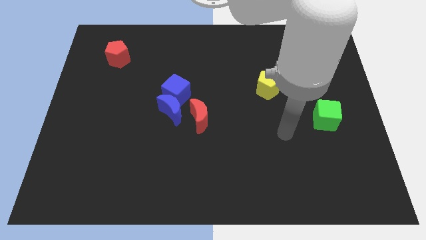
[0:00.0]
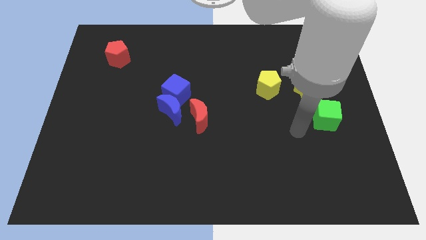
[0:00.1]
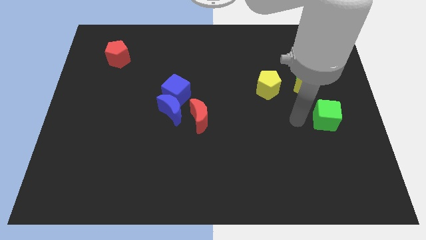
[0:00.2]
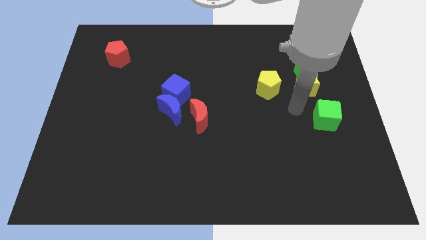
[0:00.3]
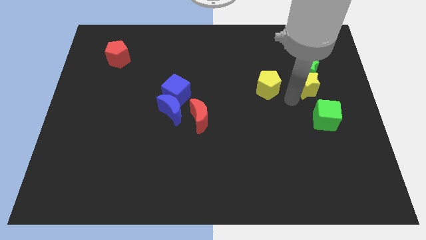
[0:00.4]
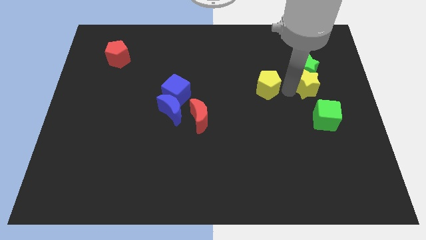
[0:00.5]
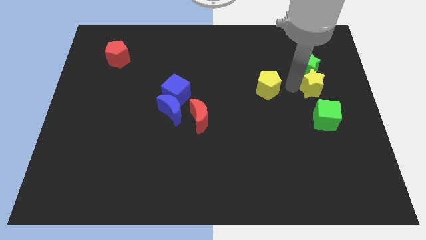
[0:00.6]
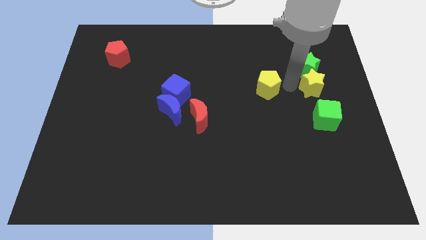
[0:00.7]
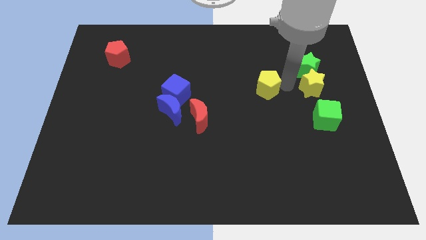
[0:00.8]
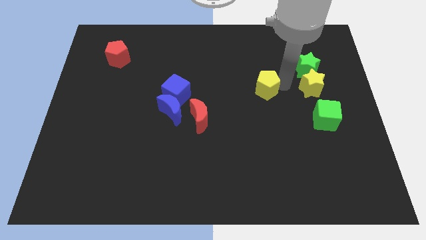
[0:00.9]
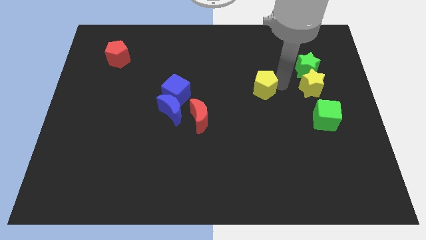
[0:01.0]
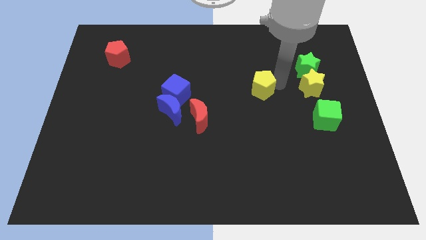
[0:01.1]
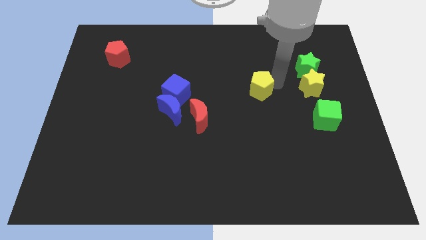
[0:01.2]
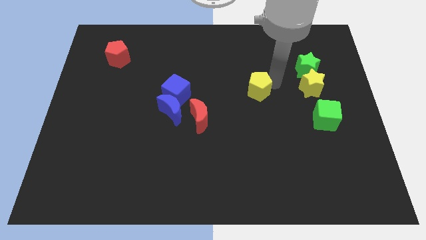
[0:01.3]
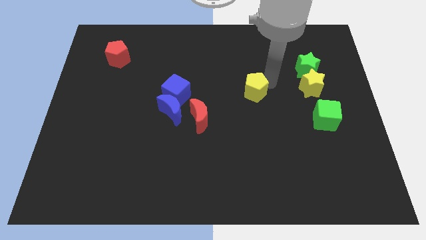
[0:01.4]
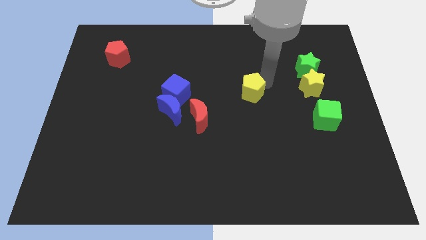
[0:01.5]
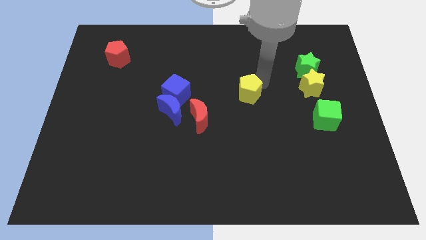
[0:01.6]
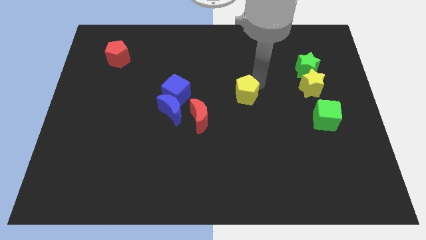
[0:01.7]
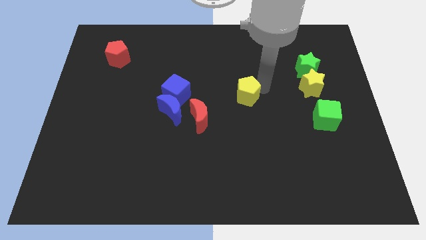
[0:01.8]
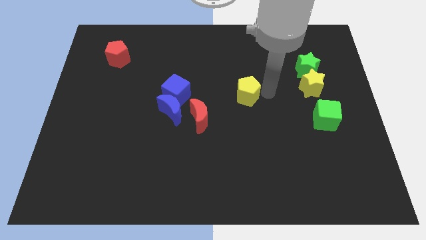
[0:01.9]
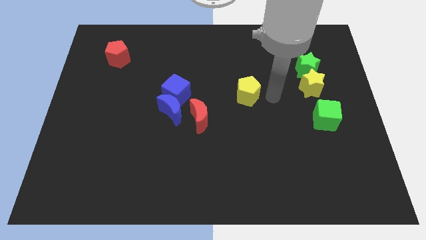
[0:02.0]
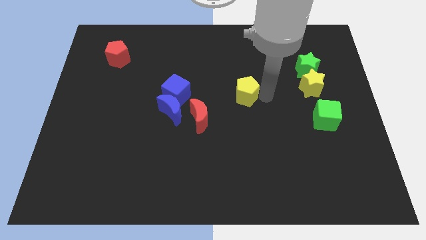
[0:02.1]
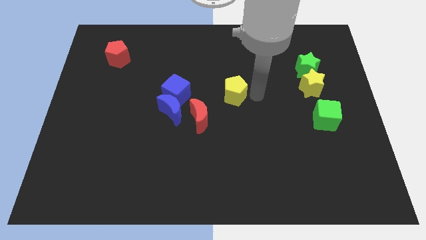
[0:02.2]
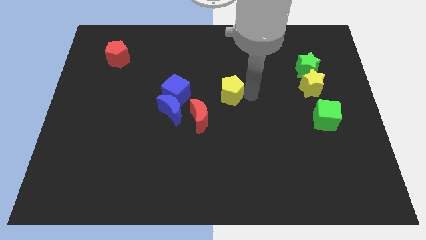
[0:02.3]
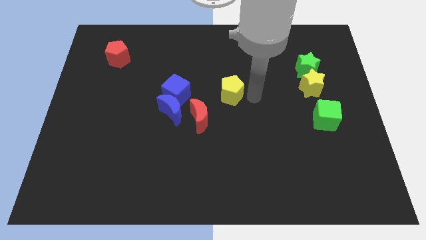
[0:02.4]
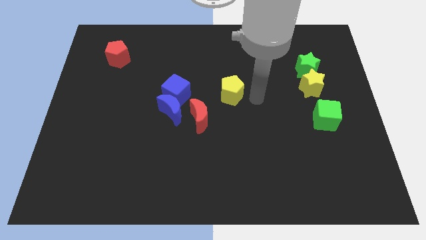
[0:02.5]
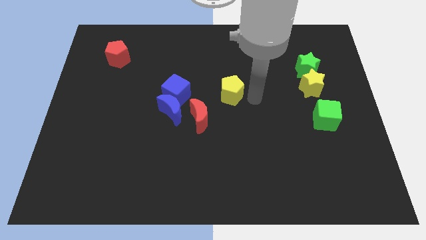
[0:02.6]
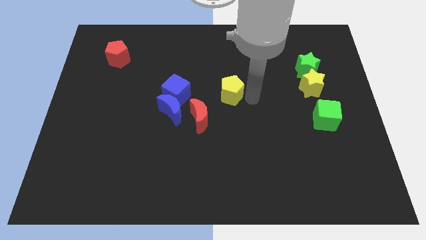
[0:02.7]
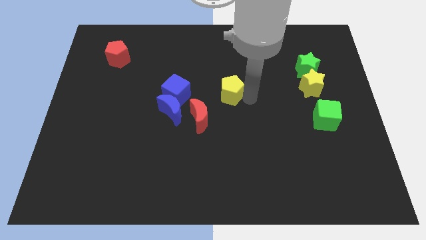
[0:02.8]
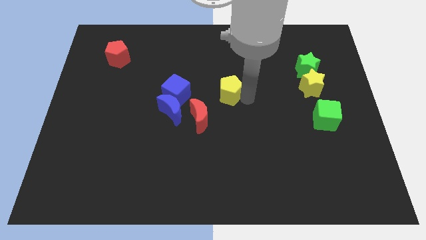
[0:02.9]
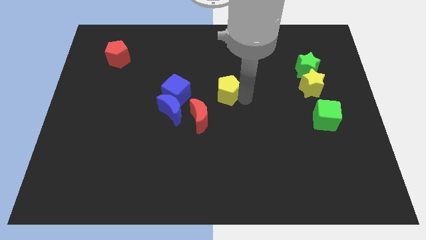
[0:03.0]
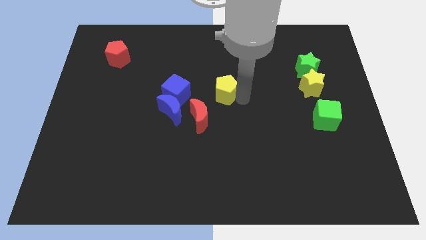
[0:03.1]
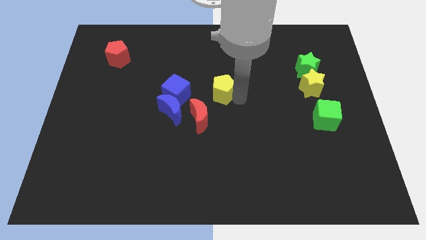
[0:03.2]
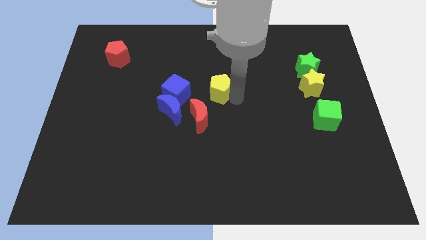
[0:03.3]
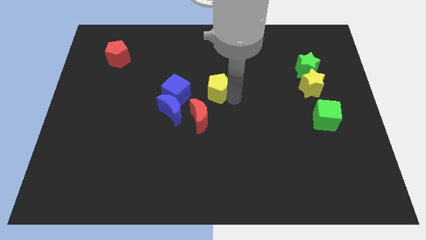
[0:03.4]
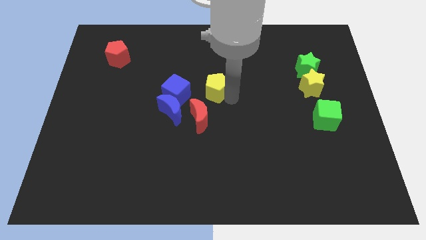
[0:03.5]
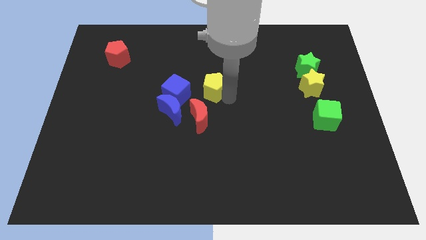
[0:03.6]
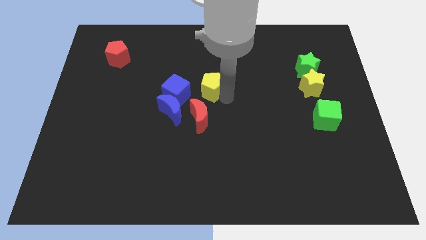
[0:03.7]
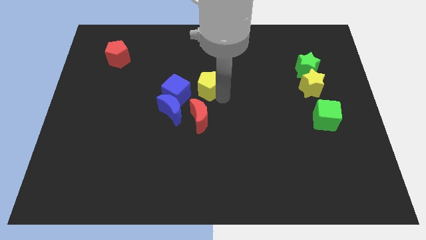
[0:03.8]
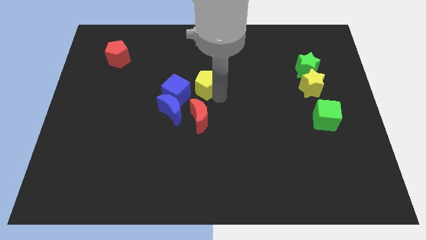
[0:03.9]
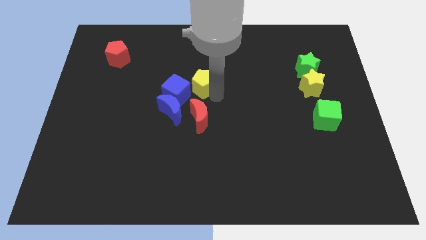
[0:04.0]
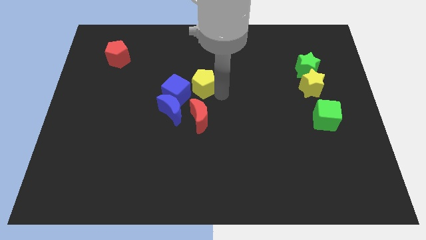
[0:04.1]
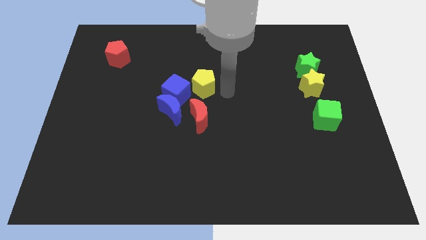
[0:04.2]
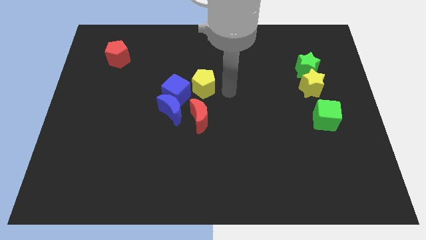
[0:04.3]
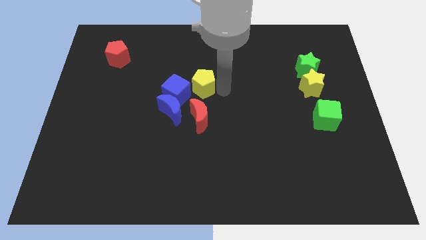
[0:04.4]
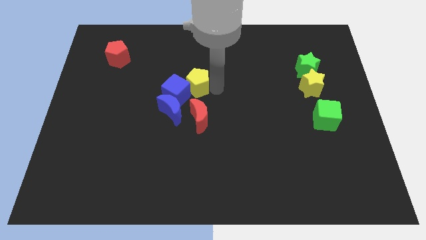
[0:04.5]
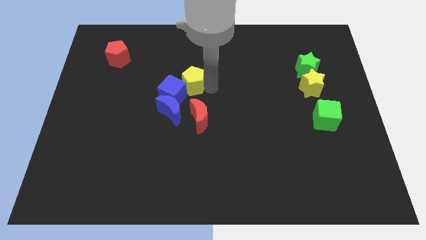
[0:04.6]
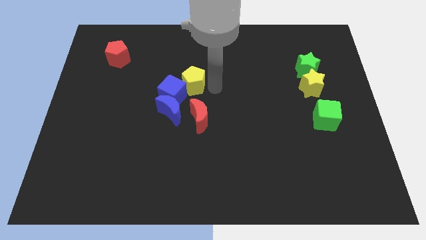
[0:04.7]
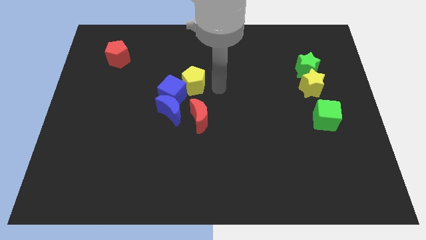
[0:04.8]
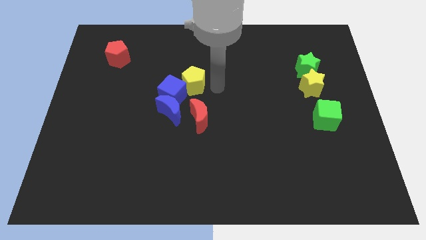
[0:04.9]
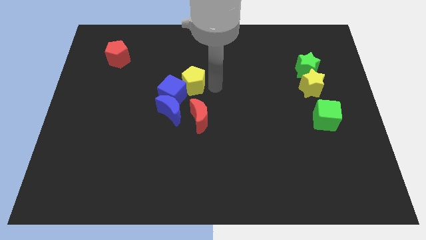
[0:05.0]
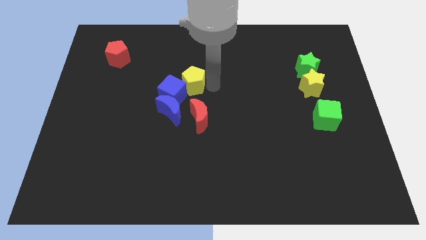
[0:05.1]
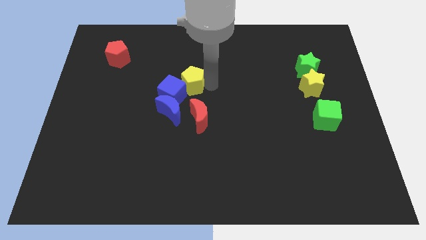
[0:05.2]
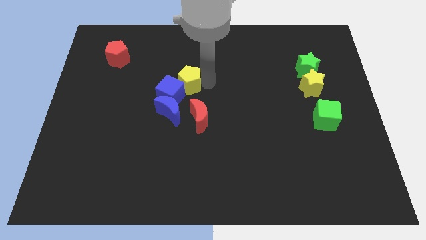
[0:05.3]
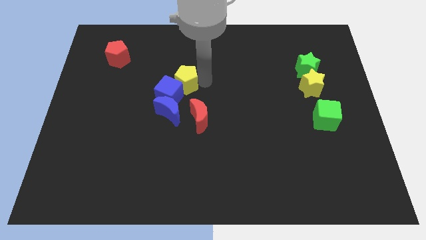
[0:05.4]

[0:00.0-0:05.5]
slide the yellow pentagon left

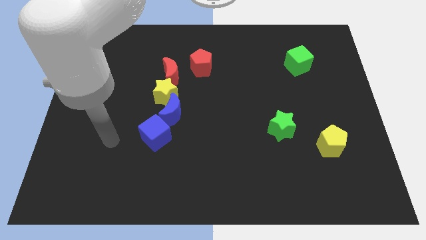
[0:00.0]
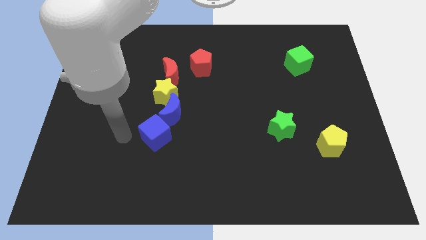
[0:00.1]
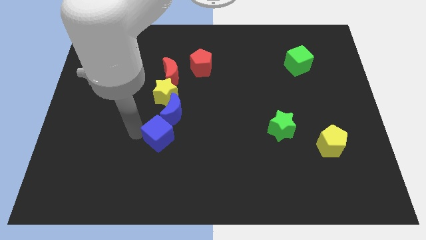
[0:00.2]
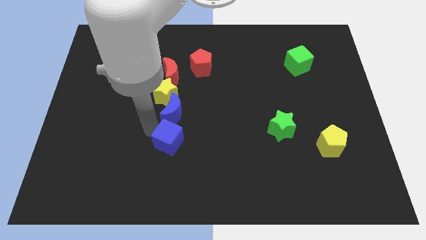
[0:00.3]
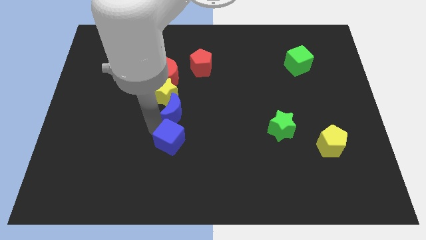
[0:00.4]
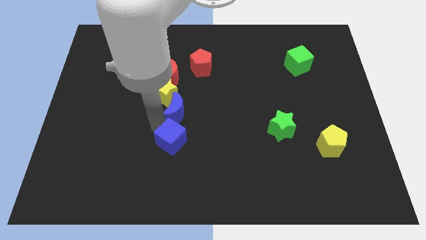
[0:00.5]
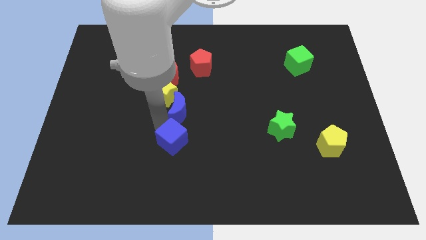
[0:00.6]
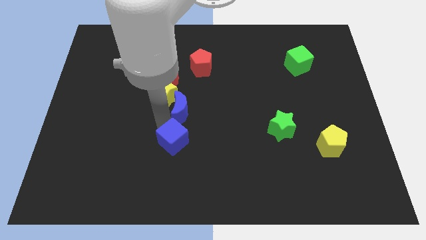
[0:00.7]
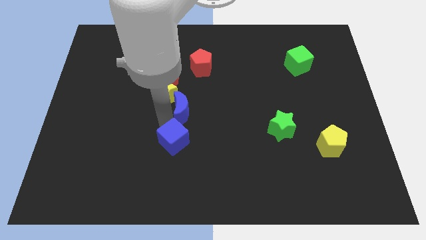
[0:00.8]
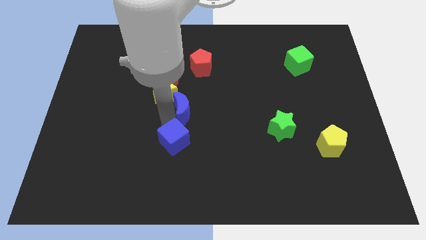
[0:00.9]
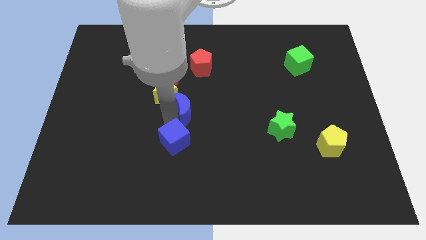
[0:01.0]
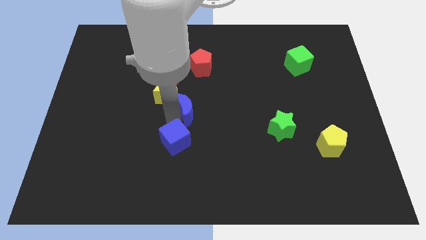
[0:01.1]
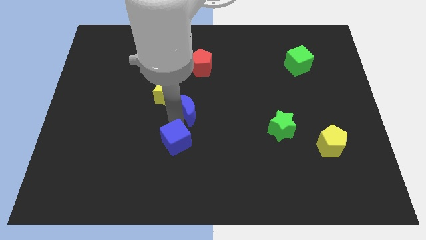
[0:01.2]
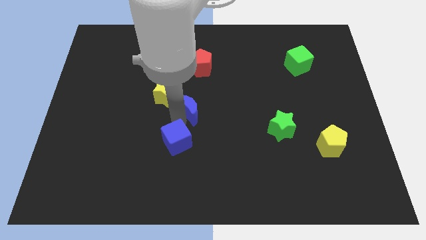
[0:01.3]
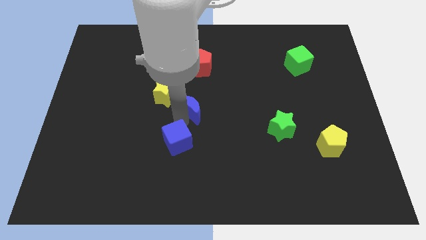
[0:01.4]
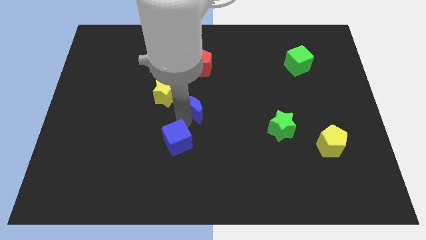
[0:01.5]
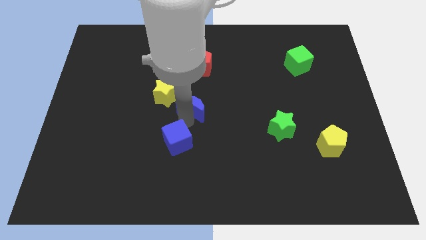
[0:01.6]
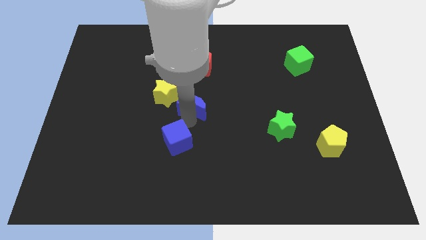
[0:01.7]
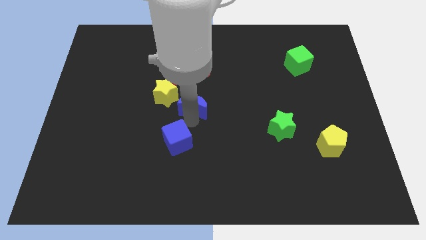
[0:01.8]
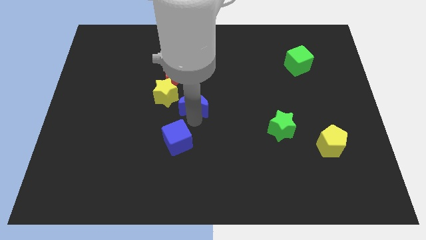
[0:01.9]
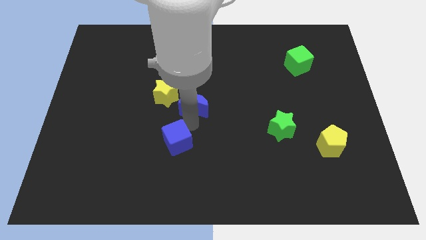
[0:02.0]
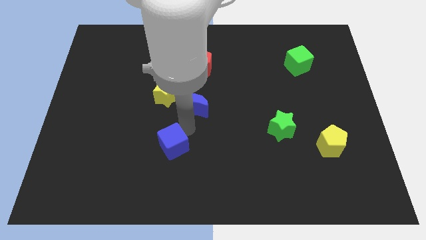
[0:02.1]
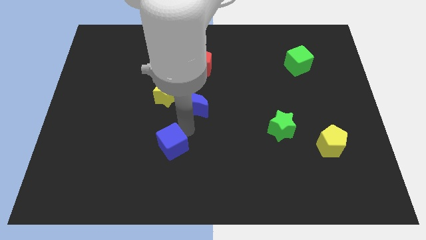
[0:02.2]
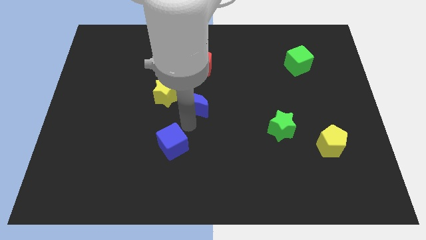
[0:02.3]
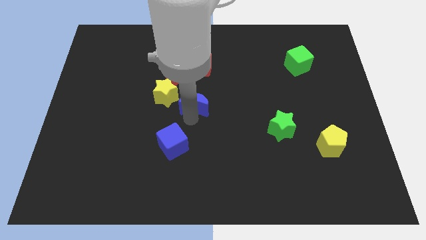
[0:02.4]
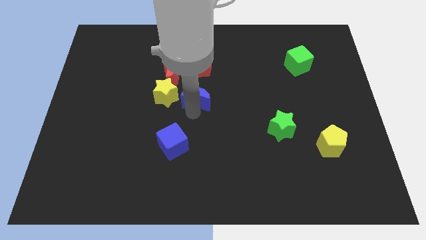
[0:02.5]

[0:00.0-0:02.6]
slightly push the blue moon upwards and to the right diagonally

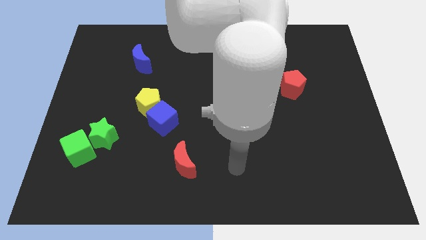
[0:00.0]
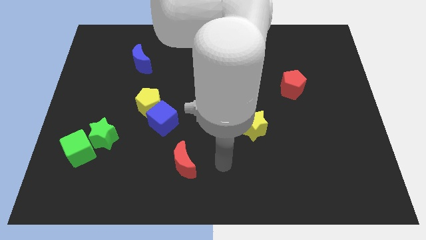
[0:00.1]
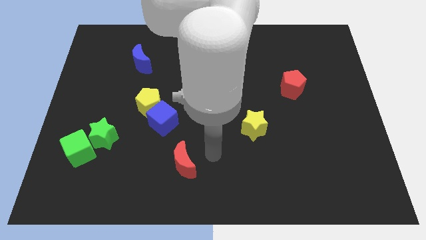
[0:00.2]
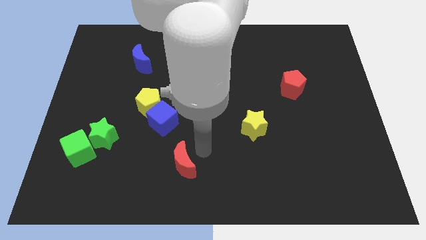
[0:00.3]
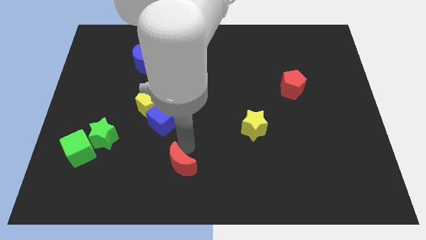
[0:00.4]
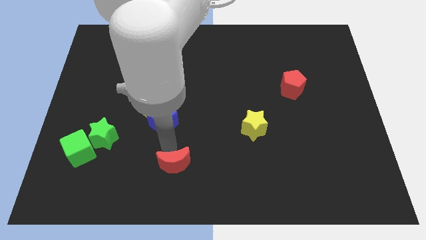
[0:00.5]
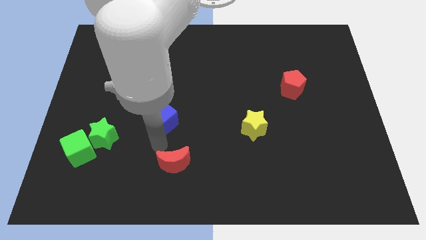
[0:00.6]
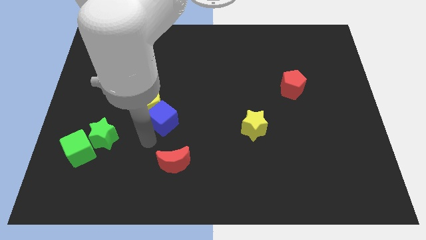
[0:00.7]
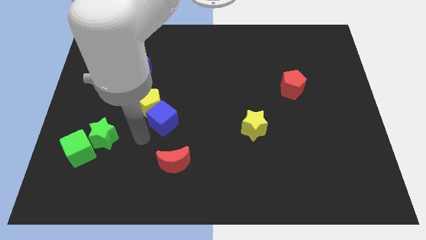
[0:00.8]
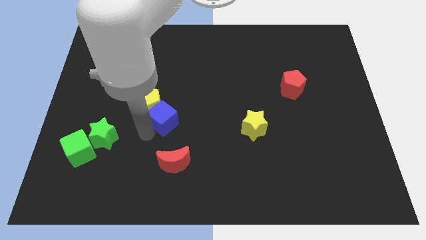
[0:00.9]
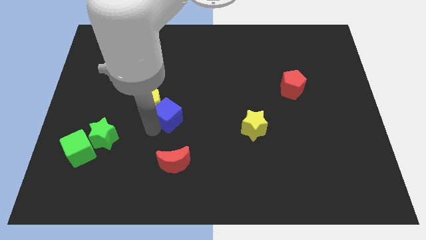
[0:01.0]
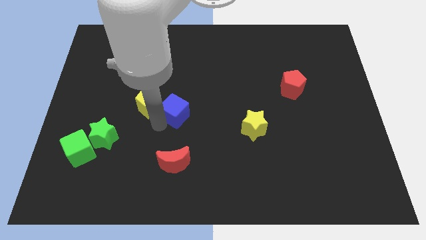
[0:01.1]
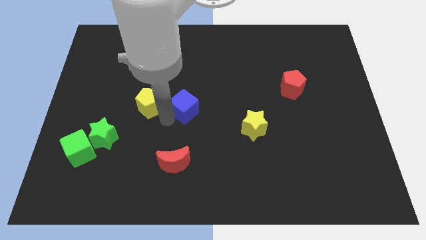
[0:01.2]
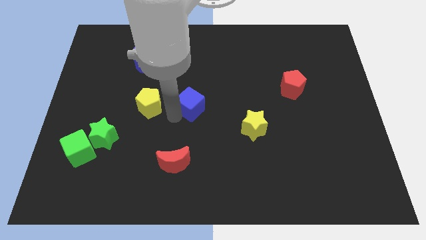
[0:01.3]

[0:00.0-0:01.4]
push the blue cube diagonally upwards and to the right a little
